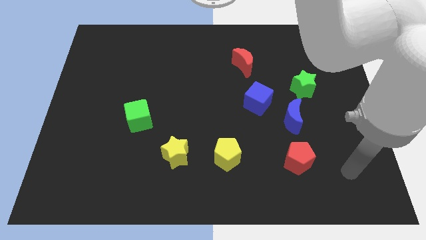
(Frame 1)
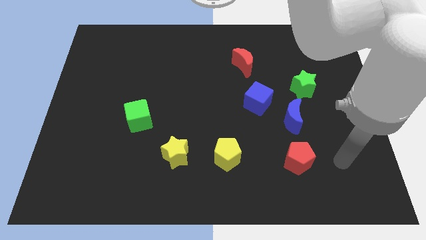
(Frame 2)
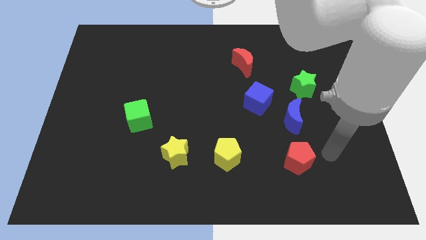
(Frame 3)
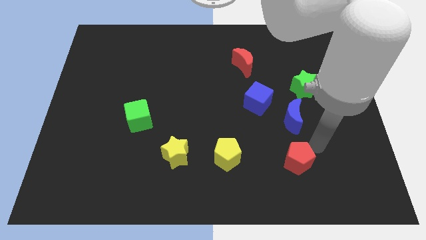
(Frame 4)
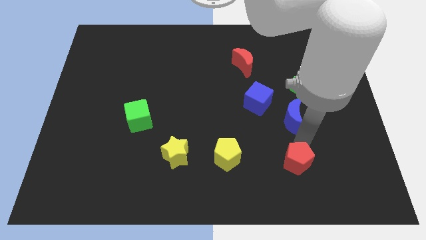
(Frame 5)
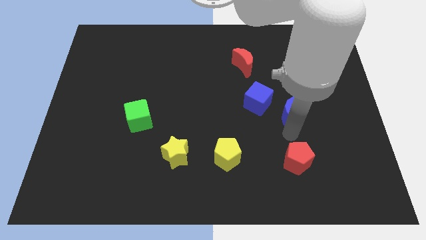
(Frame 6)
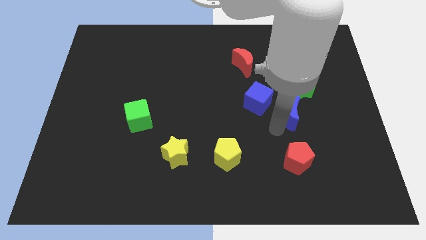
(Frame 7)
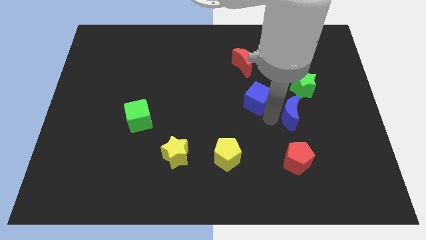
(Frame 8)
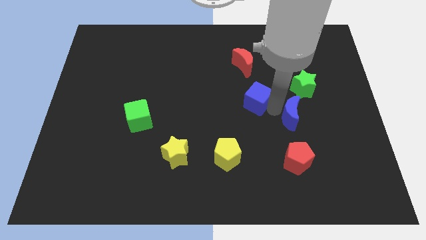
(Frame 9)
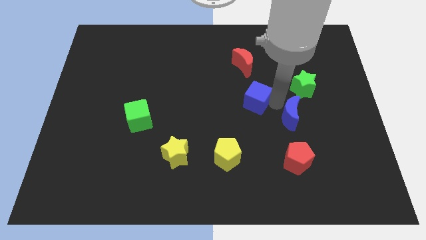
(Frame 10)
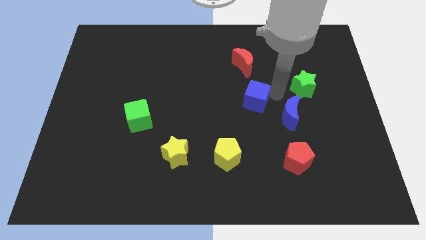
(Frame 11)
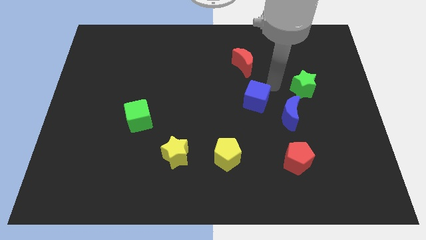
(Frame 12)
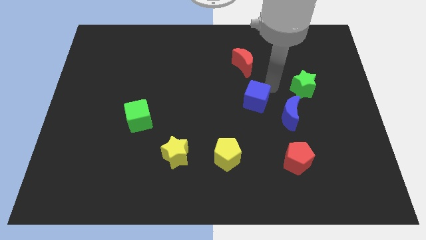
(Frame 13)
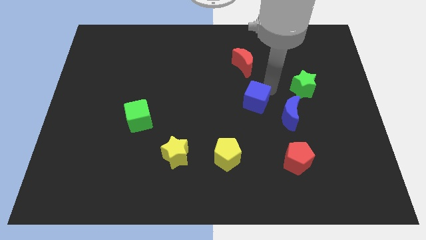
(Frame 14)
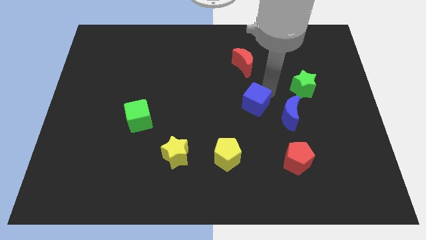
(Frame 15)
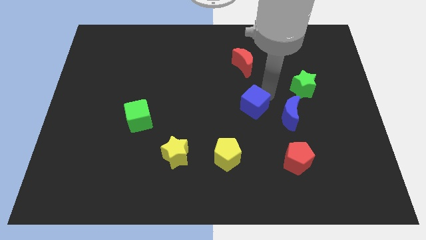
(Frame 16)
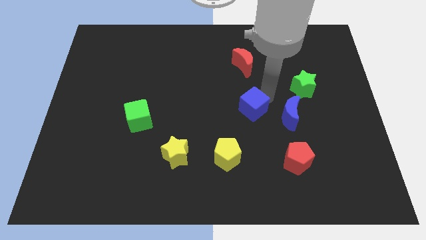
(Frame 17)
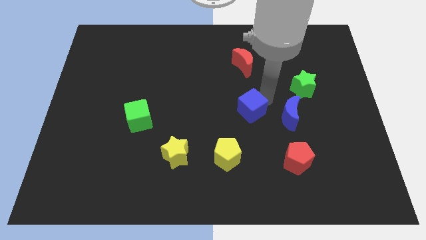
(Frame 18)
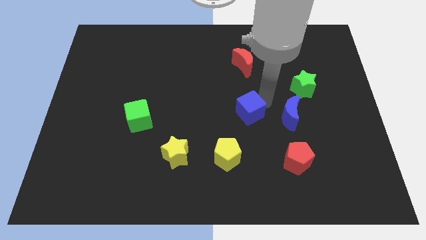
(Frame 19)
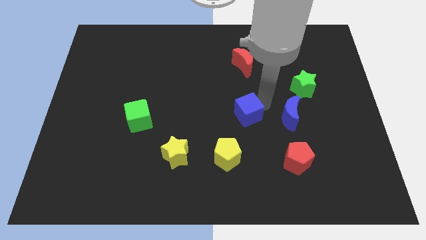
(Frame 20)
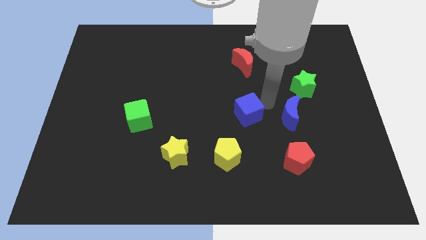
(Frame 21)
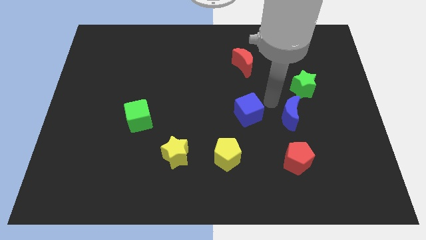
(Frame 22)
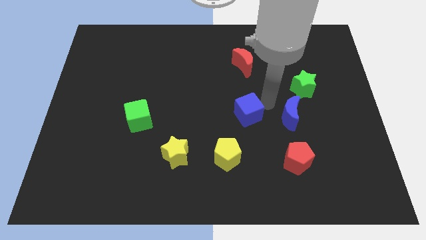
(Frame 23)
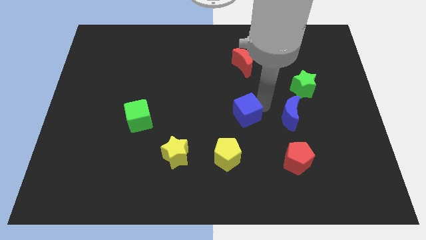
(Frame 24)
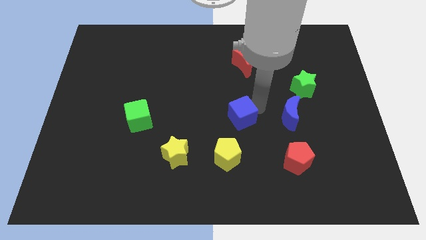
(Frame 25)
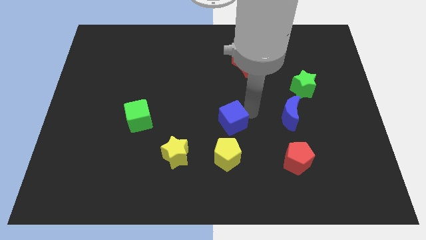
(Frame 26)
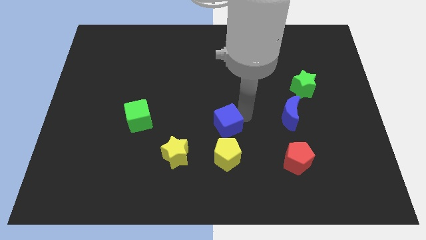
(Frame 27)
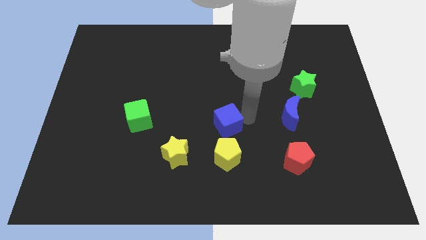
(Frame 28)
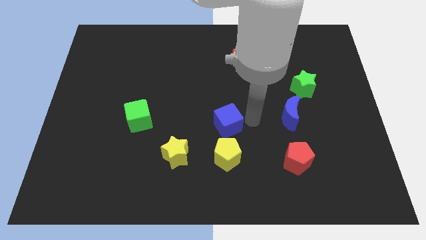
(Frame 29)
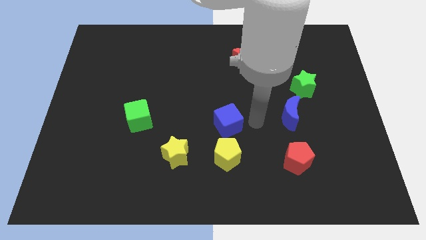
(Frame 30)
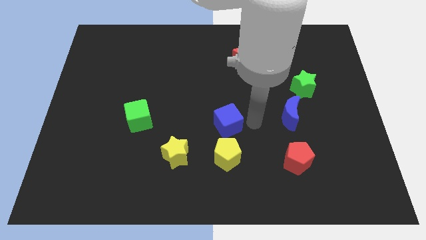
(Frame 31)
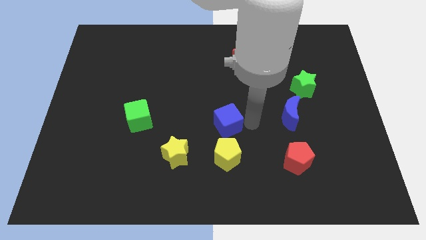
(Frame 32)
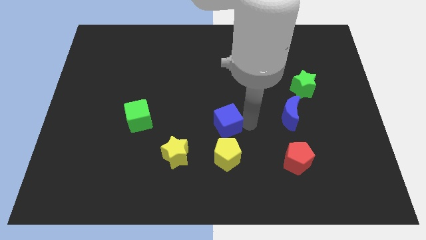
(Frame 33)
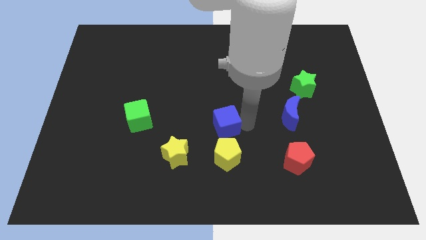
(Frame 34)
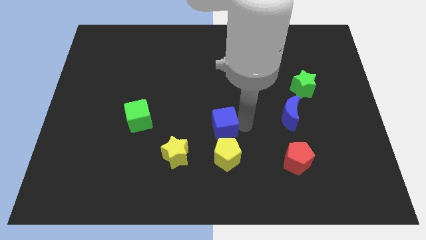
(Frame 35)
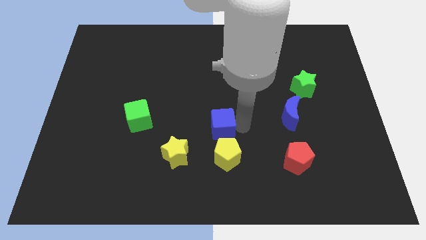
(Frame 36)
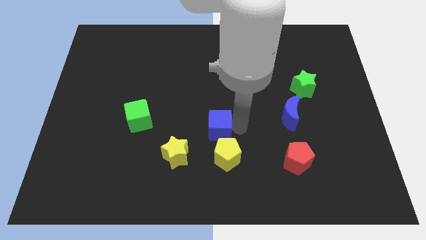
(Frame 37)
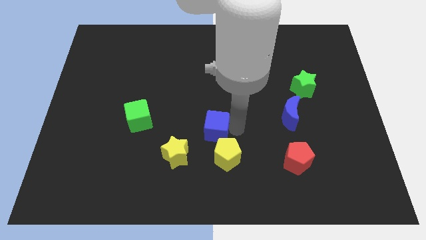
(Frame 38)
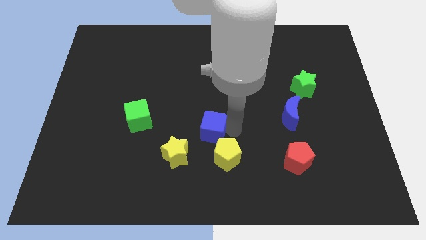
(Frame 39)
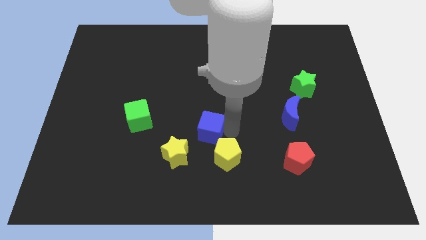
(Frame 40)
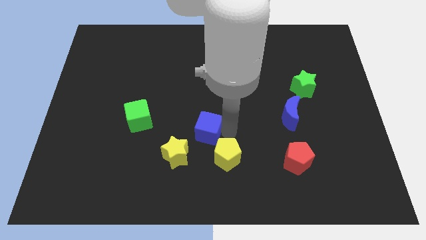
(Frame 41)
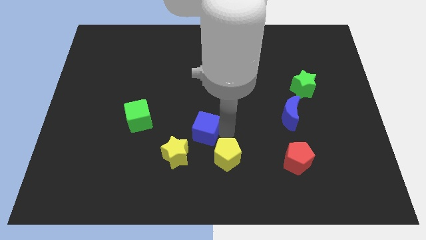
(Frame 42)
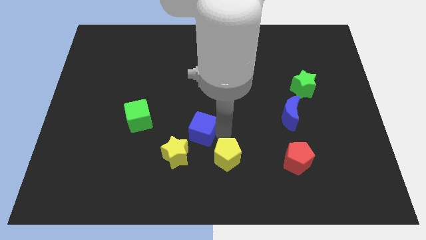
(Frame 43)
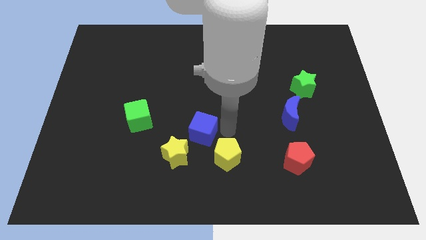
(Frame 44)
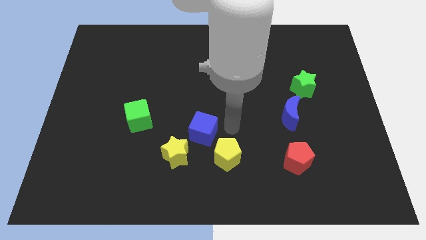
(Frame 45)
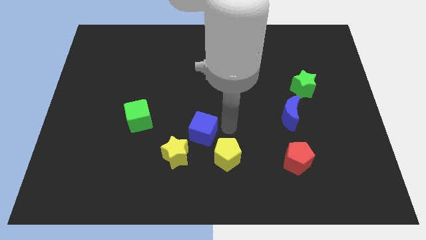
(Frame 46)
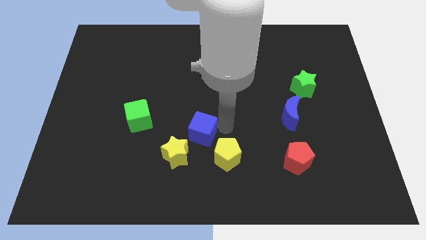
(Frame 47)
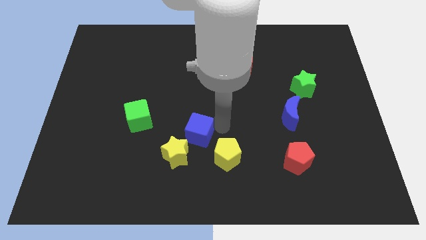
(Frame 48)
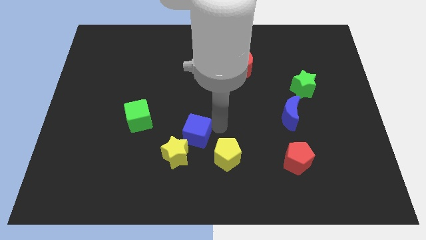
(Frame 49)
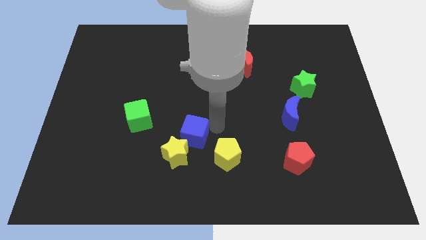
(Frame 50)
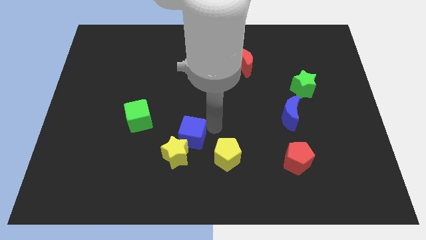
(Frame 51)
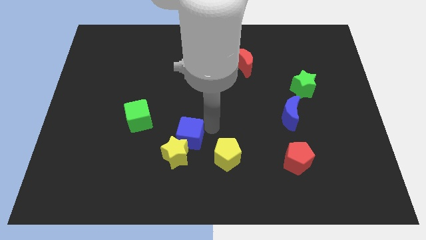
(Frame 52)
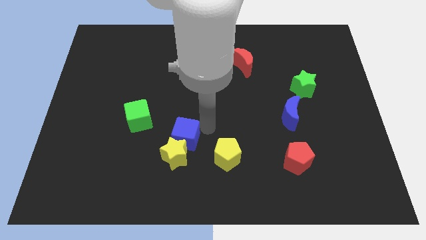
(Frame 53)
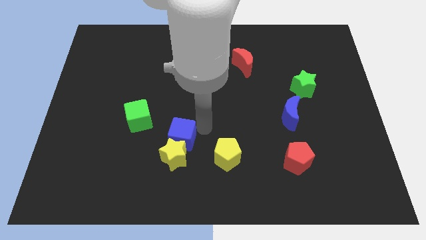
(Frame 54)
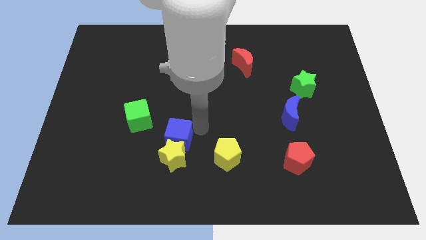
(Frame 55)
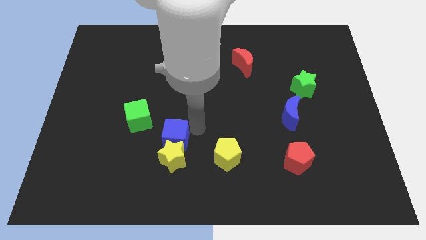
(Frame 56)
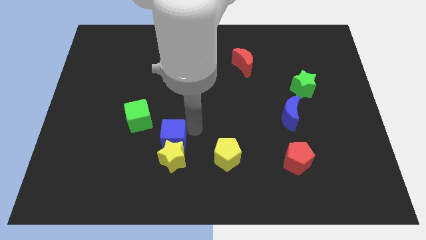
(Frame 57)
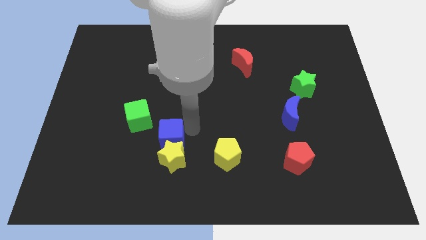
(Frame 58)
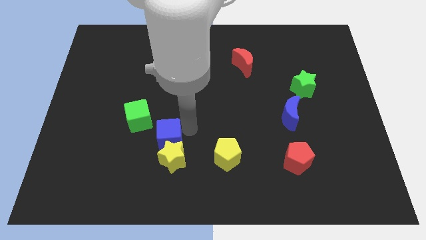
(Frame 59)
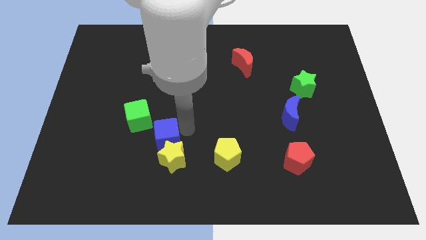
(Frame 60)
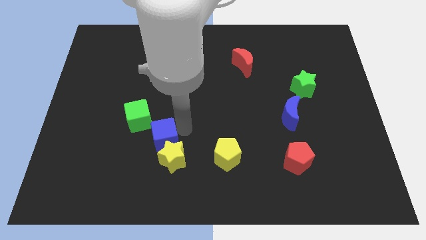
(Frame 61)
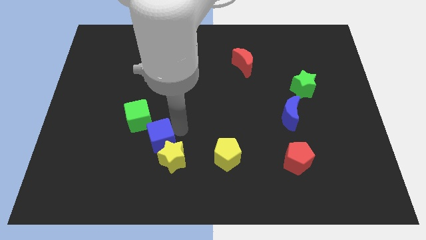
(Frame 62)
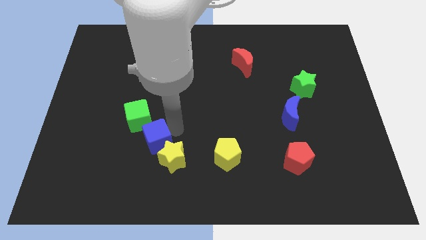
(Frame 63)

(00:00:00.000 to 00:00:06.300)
put the blue cube left of the yellow star

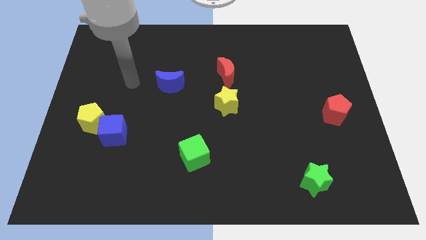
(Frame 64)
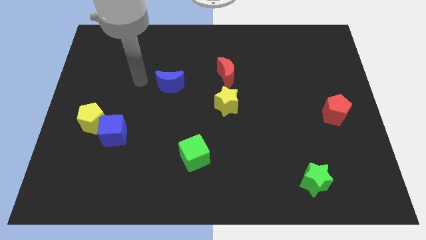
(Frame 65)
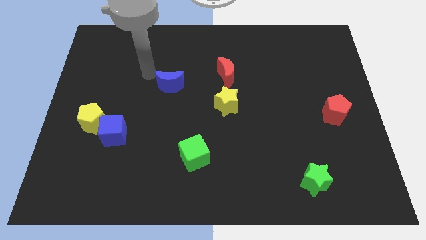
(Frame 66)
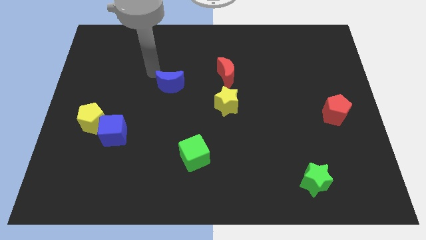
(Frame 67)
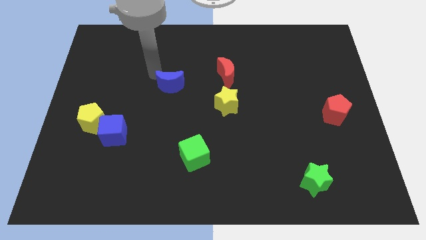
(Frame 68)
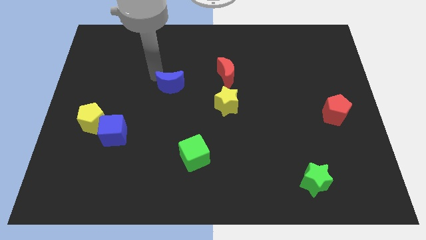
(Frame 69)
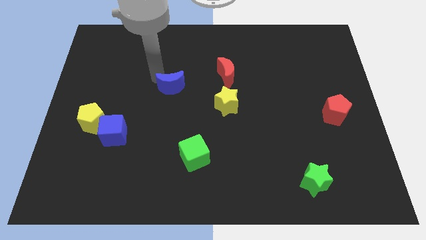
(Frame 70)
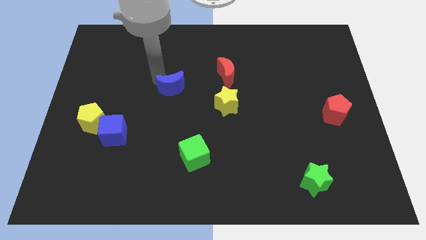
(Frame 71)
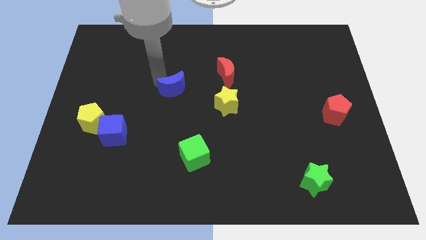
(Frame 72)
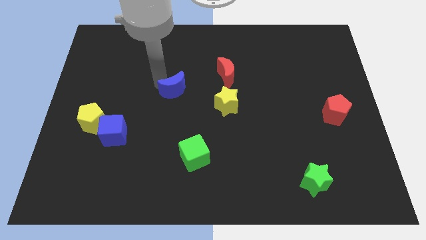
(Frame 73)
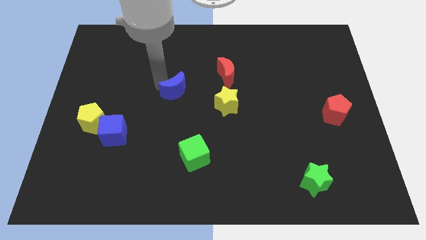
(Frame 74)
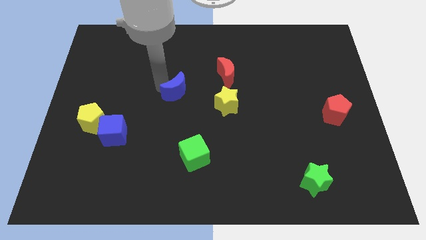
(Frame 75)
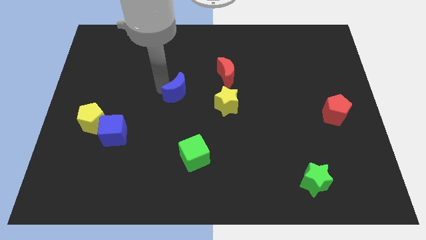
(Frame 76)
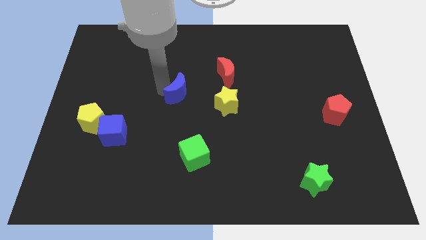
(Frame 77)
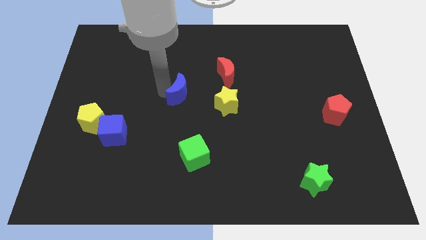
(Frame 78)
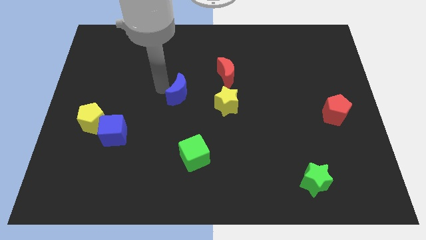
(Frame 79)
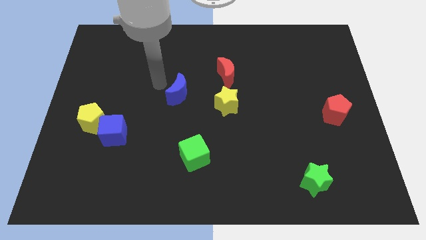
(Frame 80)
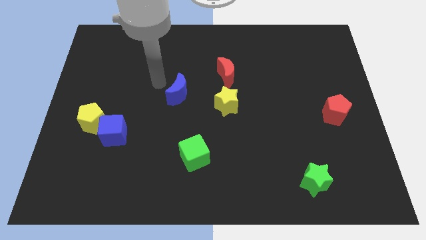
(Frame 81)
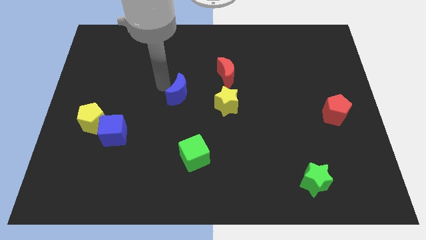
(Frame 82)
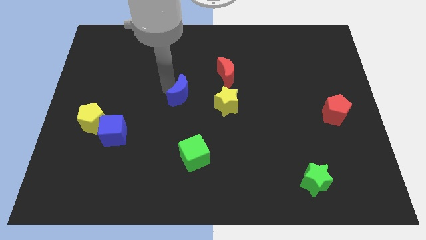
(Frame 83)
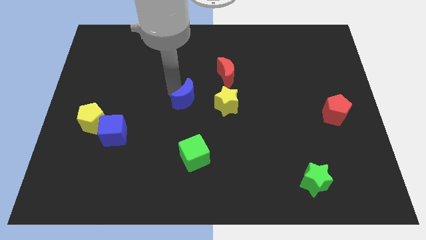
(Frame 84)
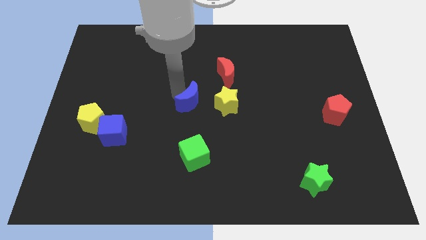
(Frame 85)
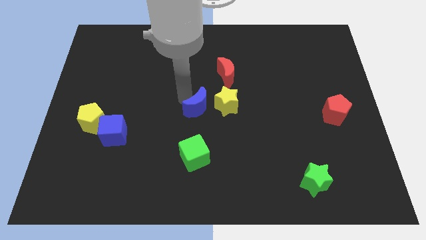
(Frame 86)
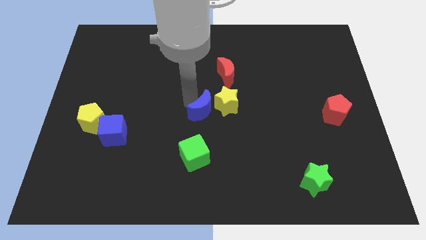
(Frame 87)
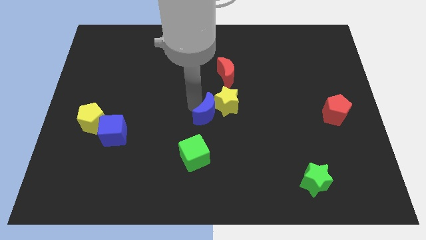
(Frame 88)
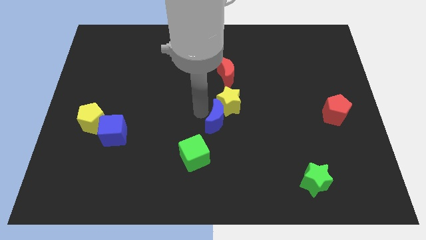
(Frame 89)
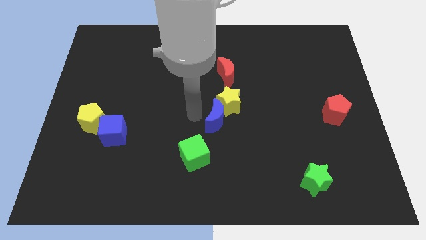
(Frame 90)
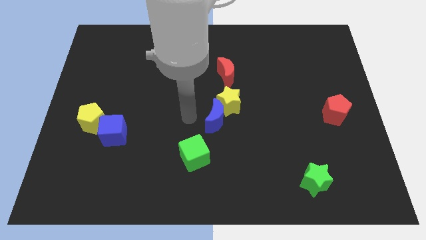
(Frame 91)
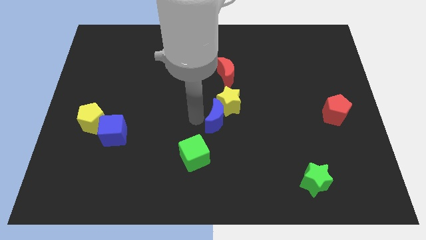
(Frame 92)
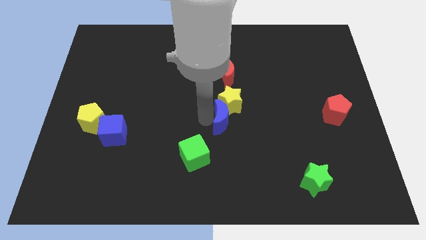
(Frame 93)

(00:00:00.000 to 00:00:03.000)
push the blue moon to the bottom right of the yellow star
